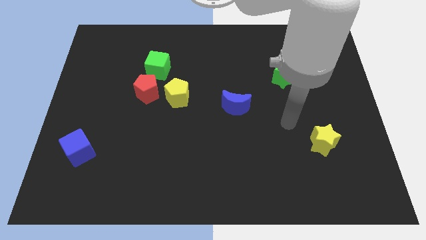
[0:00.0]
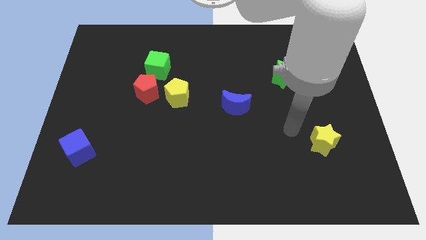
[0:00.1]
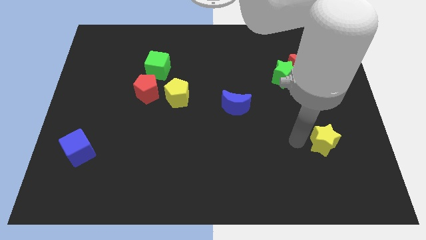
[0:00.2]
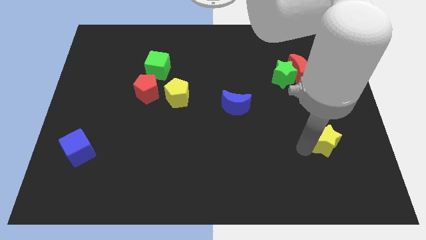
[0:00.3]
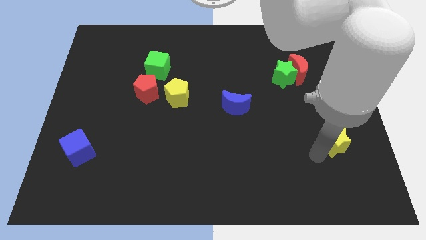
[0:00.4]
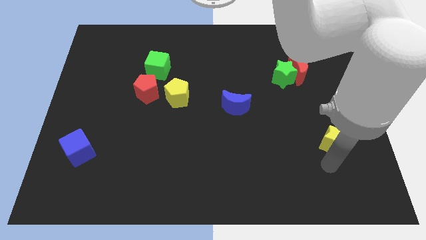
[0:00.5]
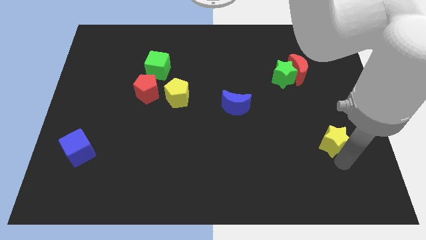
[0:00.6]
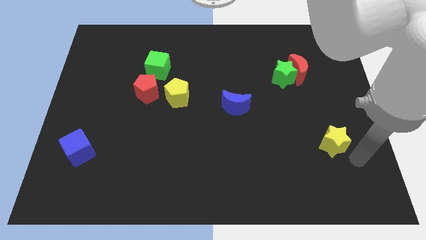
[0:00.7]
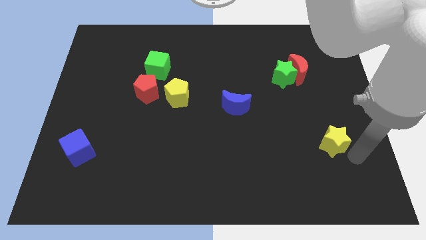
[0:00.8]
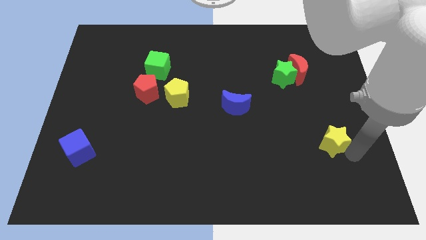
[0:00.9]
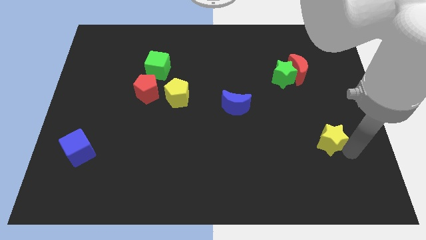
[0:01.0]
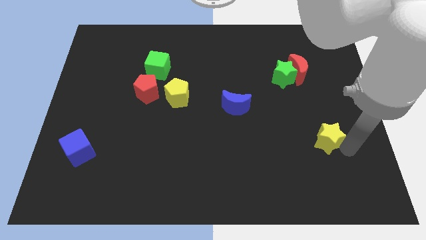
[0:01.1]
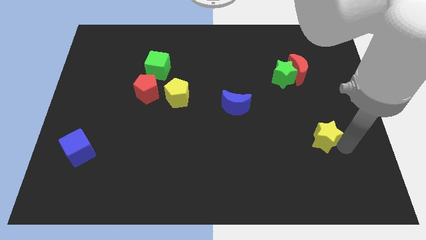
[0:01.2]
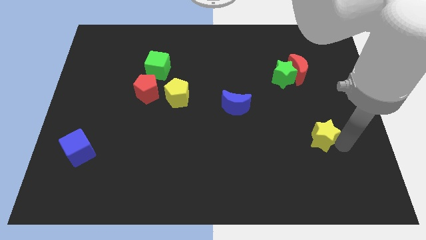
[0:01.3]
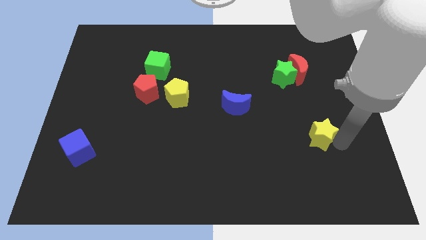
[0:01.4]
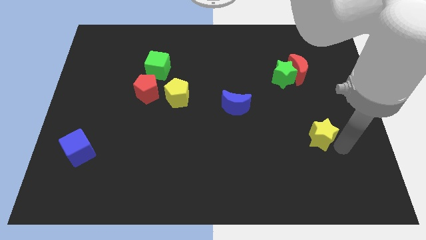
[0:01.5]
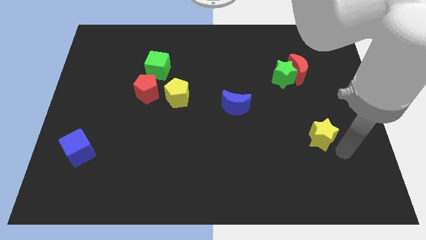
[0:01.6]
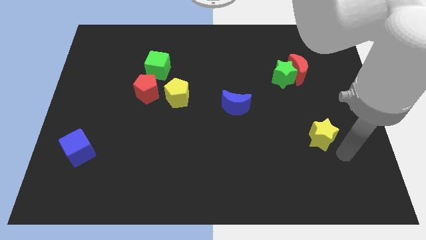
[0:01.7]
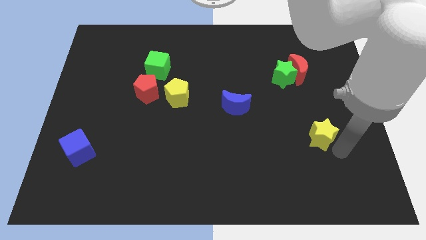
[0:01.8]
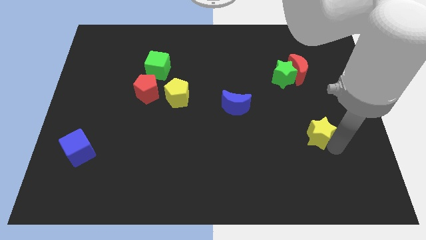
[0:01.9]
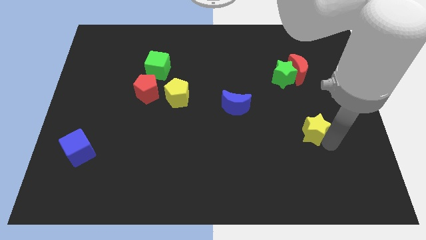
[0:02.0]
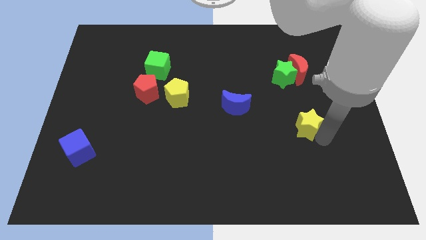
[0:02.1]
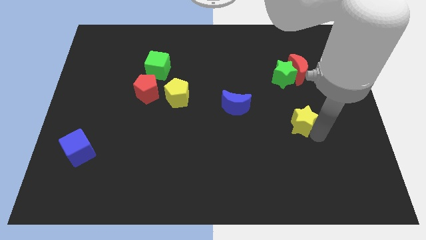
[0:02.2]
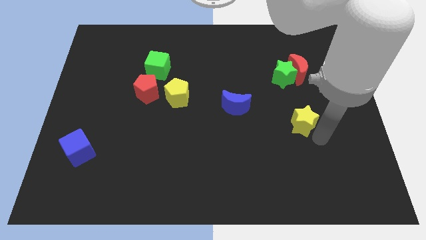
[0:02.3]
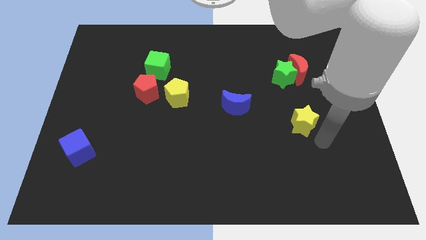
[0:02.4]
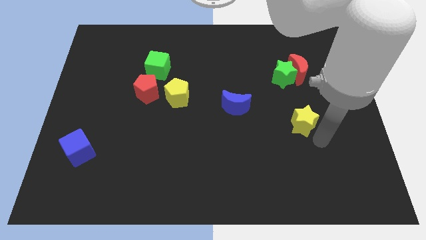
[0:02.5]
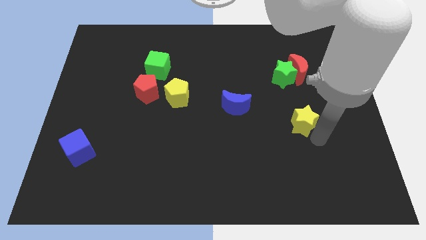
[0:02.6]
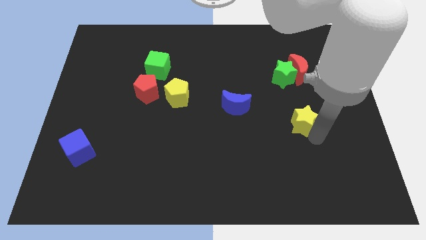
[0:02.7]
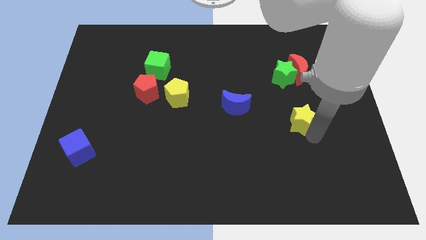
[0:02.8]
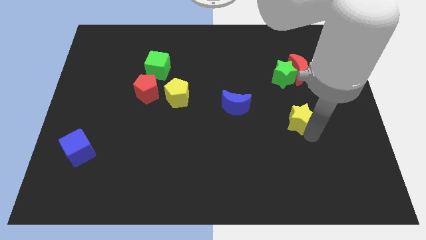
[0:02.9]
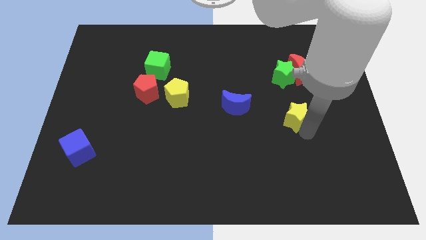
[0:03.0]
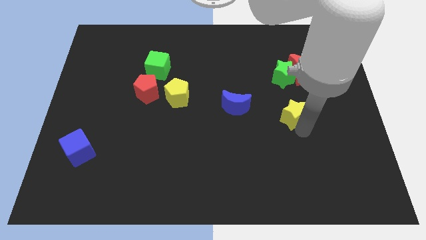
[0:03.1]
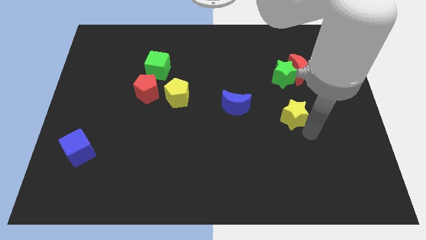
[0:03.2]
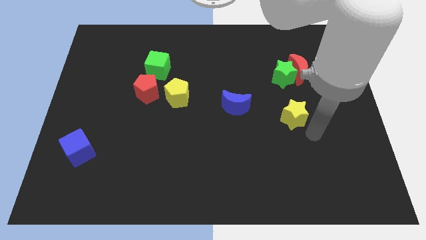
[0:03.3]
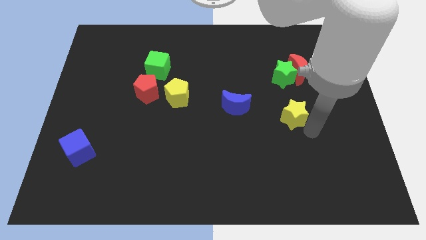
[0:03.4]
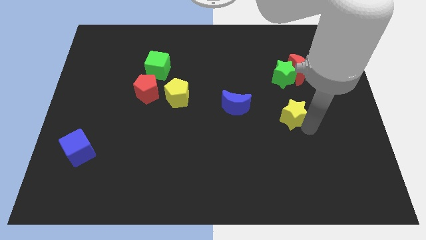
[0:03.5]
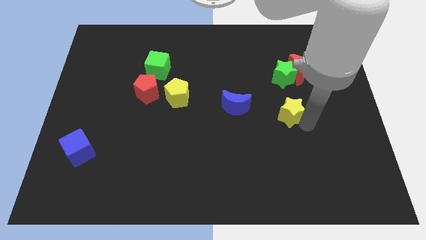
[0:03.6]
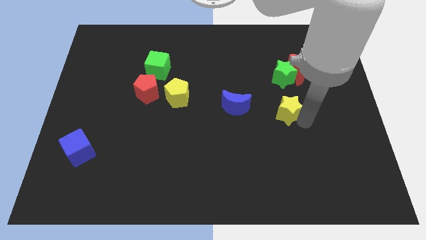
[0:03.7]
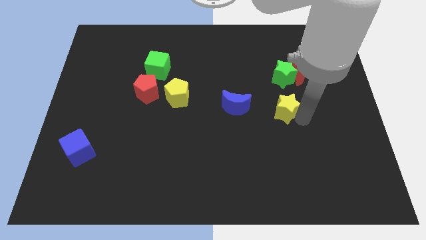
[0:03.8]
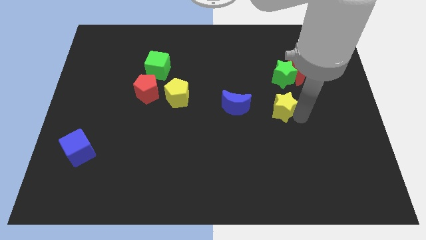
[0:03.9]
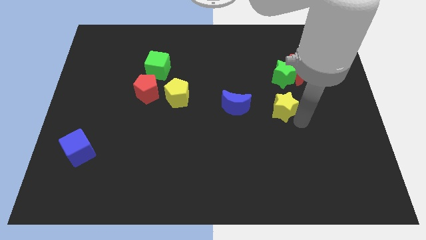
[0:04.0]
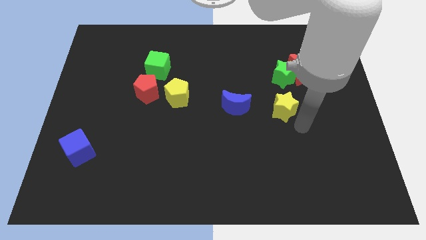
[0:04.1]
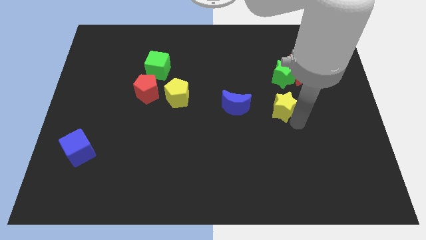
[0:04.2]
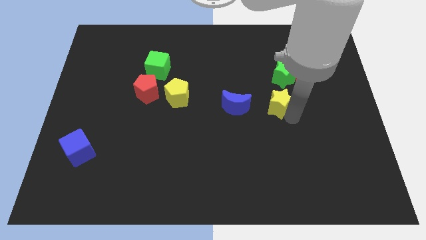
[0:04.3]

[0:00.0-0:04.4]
push the yellow star diagonally down and to the left of the green star

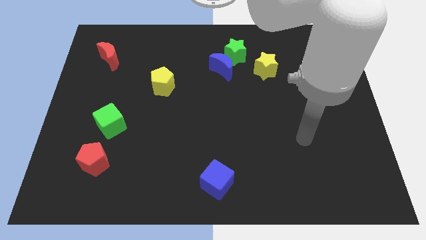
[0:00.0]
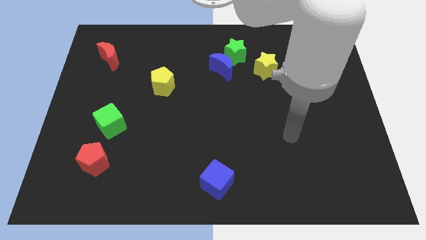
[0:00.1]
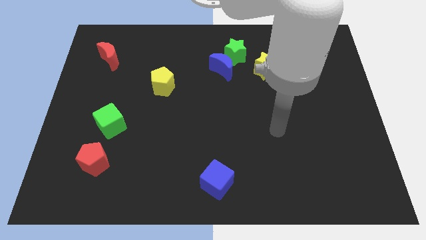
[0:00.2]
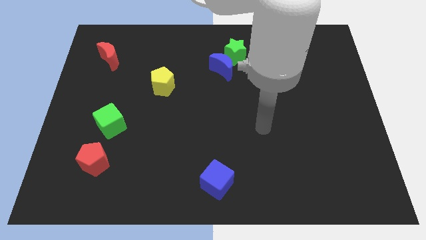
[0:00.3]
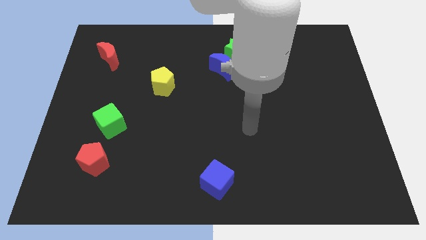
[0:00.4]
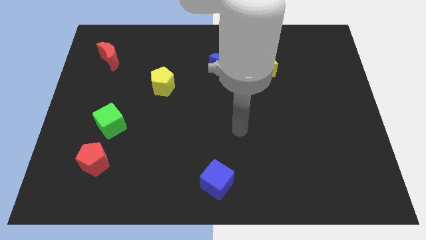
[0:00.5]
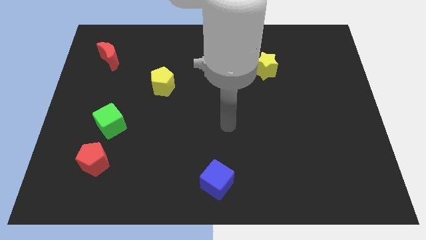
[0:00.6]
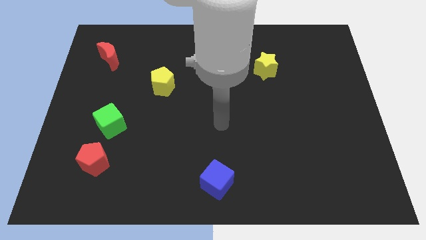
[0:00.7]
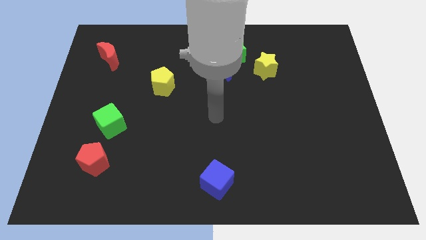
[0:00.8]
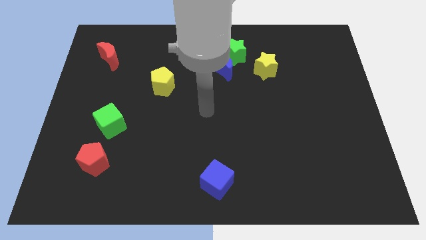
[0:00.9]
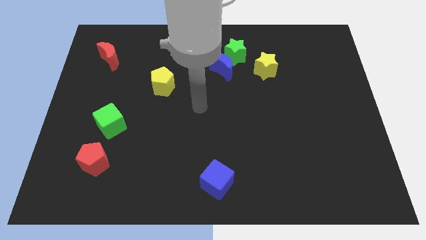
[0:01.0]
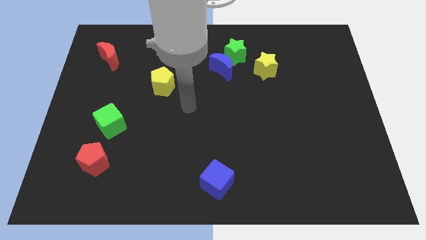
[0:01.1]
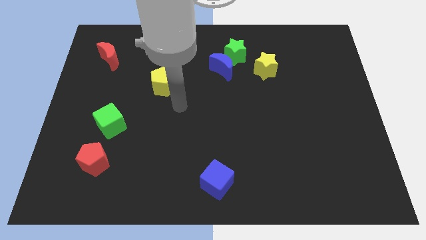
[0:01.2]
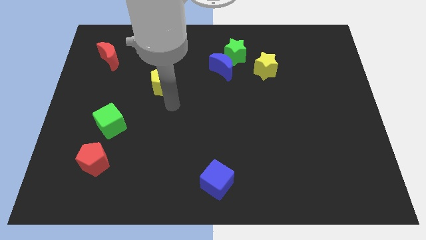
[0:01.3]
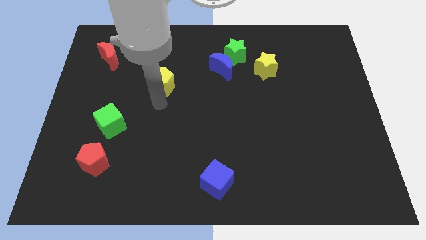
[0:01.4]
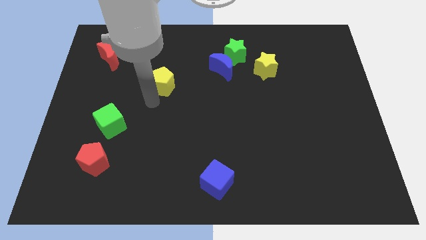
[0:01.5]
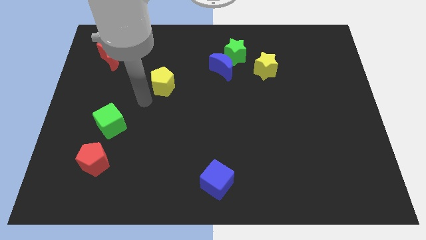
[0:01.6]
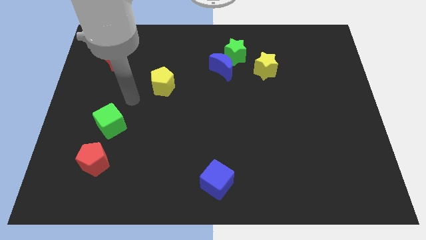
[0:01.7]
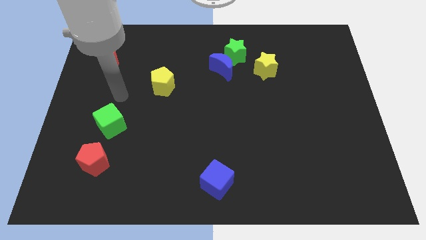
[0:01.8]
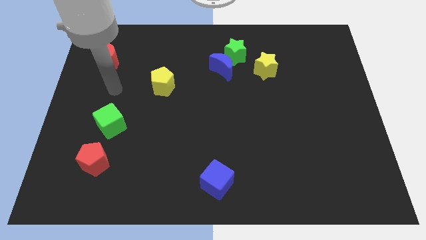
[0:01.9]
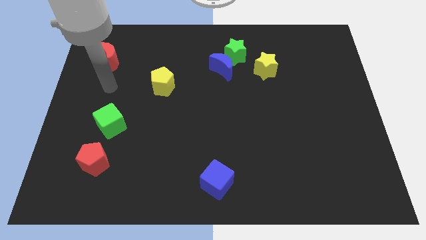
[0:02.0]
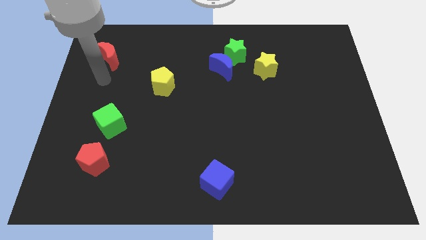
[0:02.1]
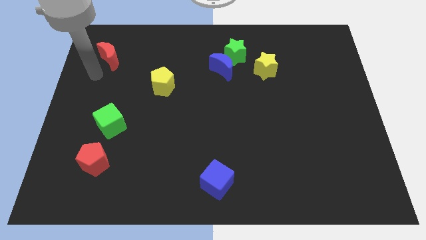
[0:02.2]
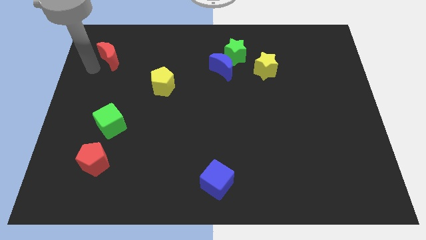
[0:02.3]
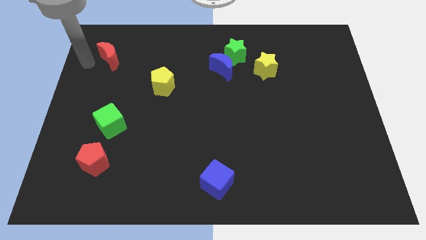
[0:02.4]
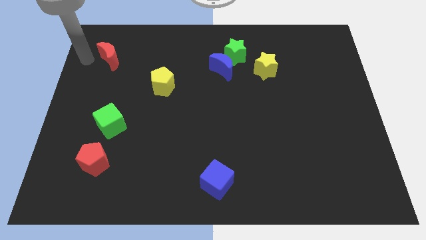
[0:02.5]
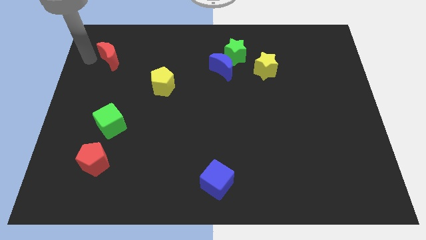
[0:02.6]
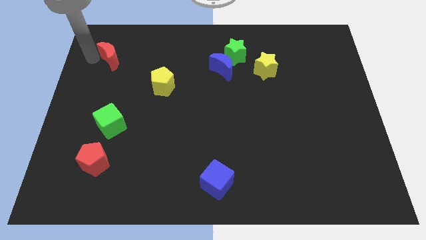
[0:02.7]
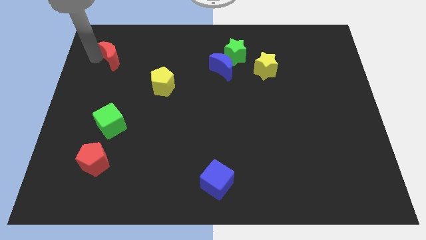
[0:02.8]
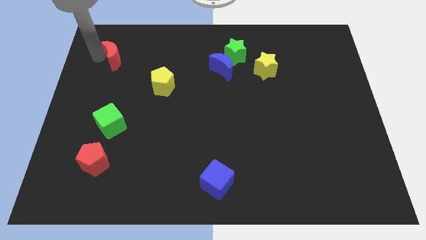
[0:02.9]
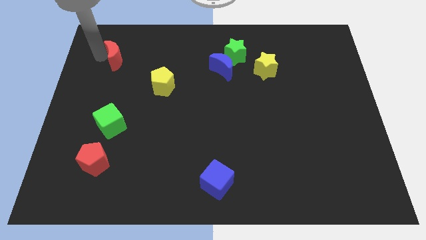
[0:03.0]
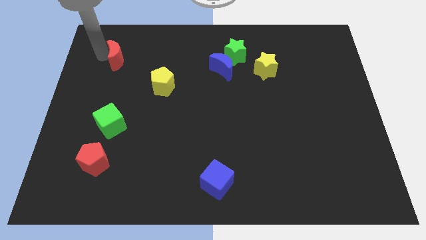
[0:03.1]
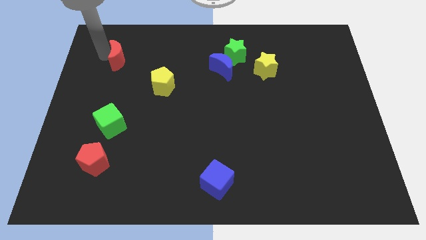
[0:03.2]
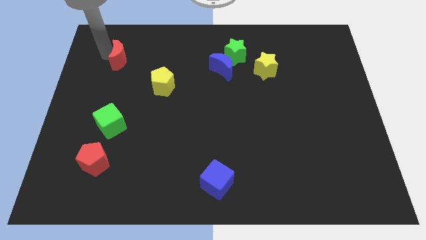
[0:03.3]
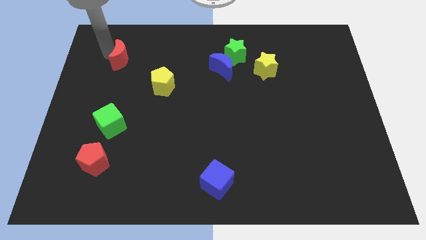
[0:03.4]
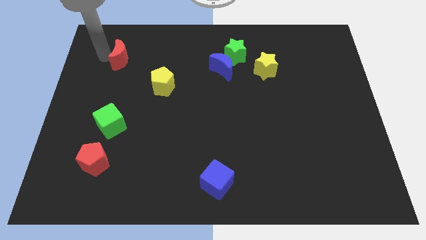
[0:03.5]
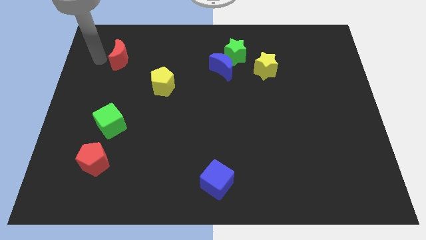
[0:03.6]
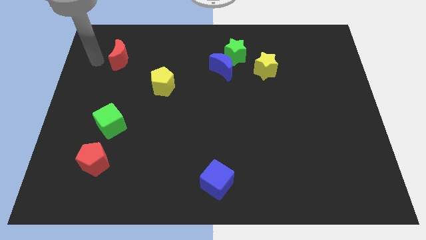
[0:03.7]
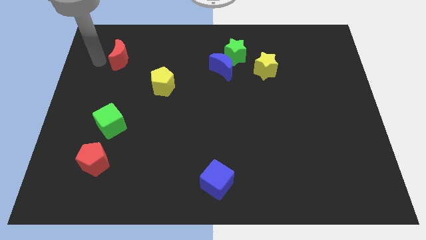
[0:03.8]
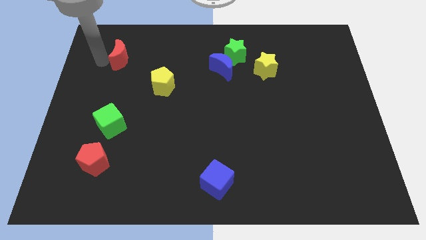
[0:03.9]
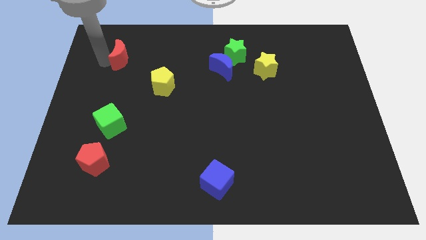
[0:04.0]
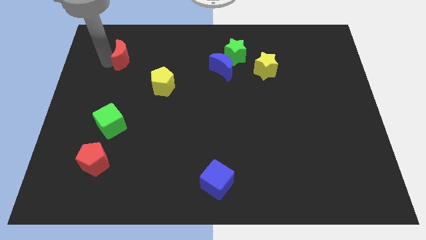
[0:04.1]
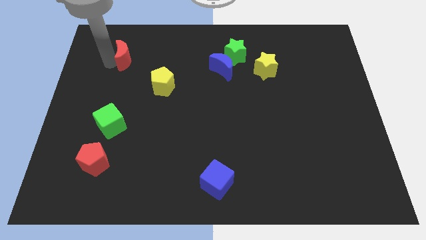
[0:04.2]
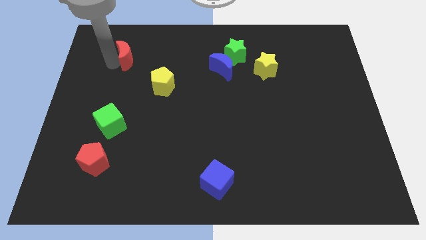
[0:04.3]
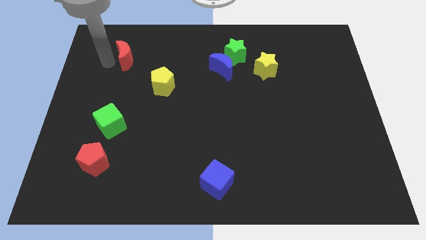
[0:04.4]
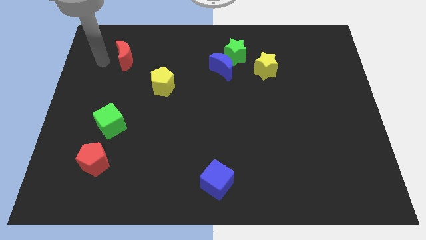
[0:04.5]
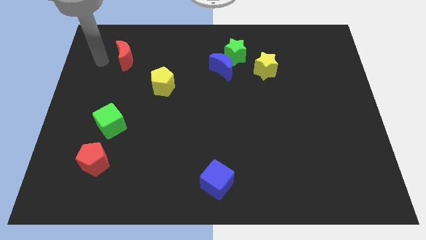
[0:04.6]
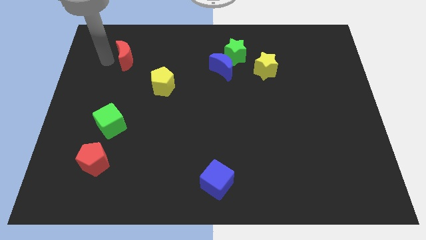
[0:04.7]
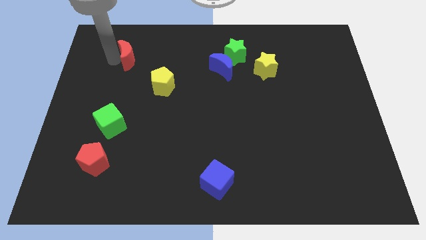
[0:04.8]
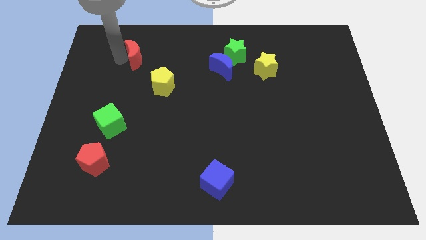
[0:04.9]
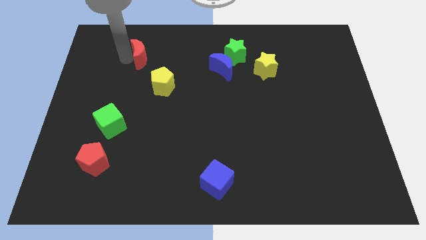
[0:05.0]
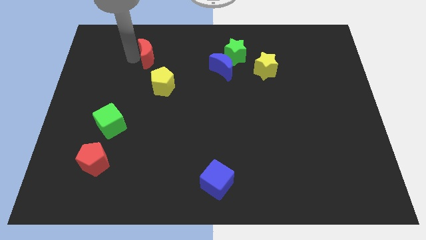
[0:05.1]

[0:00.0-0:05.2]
slide the red moon to the top of the yellow pentagon
